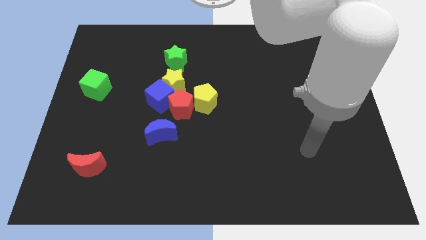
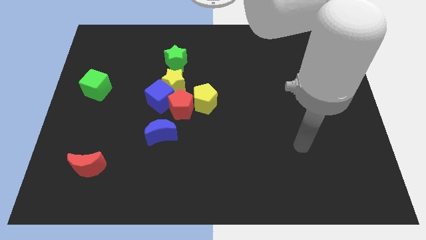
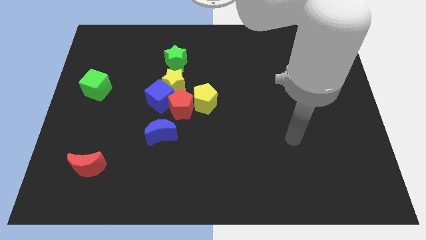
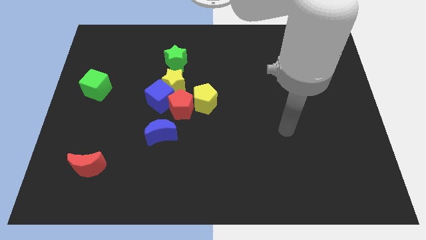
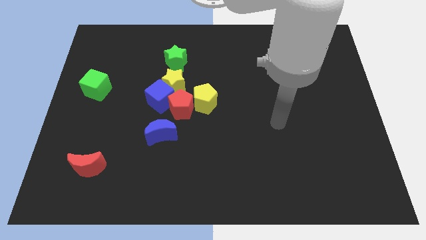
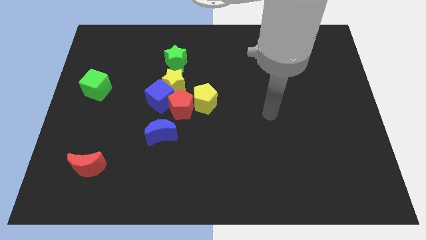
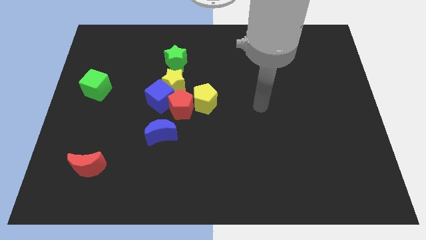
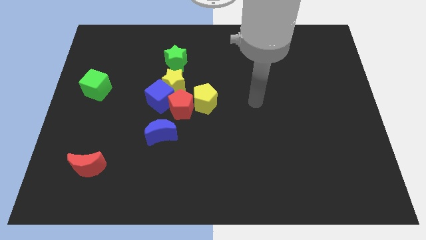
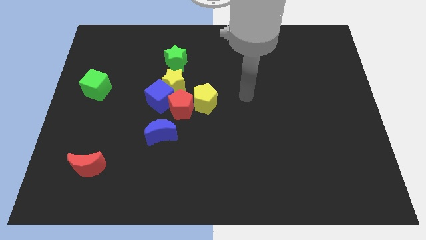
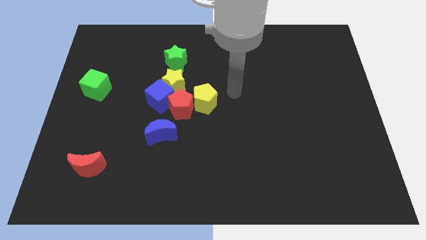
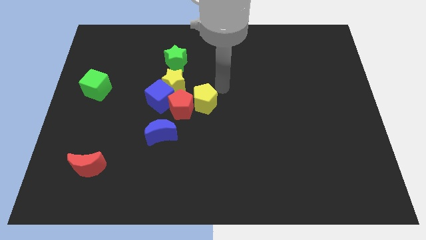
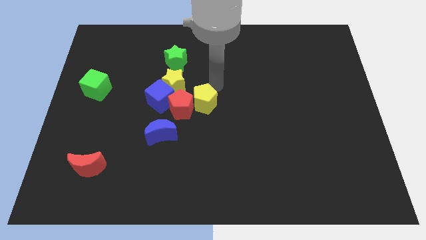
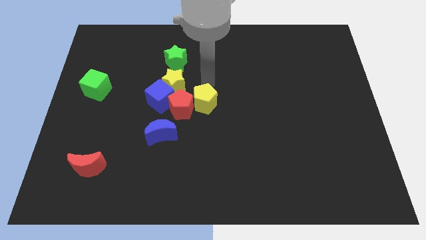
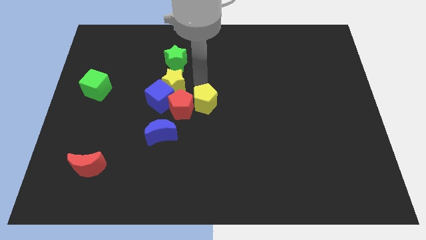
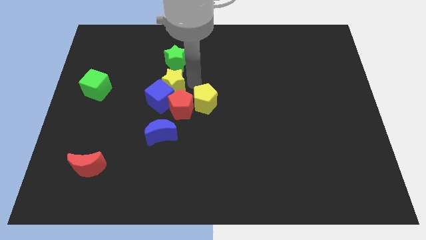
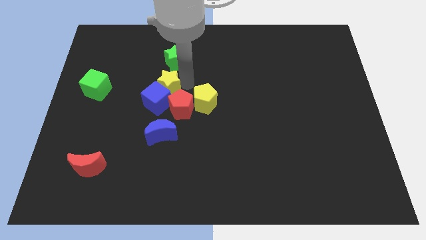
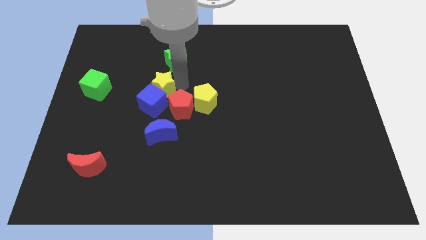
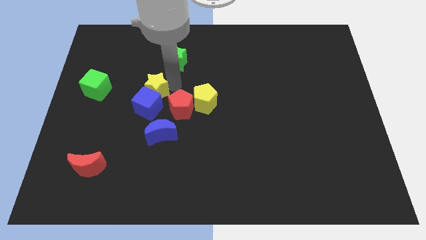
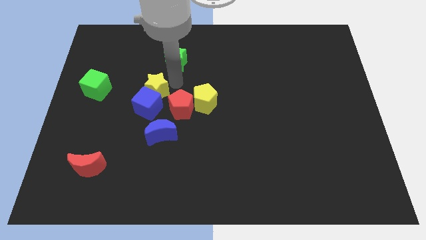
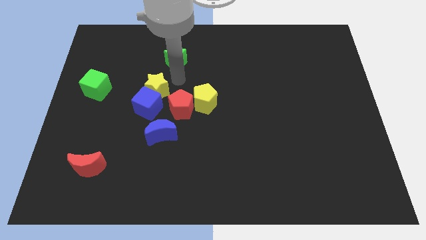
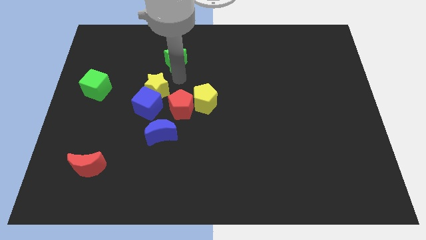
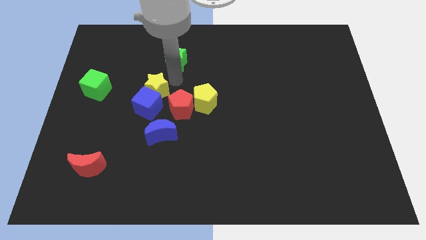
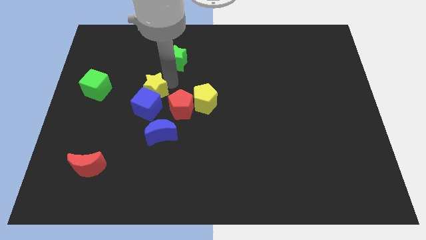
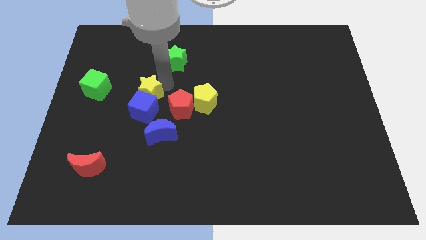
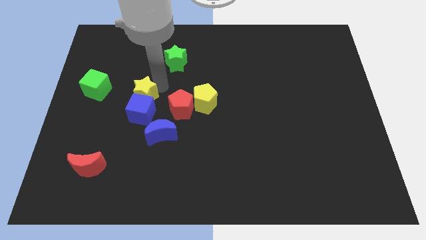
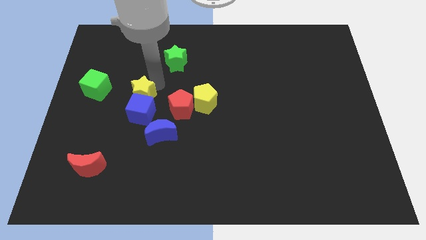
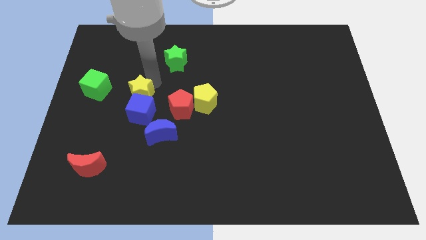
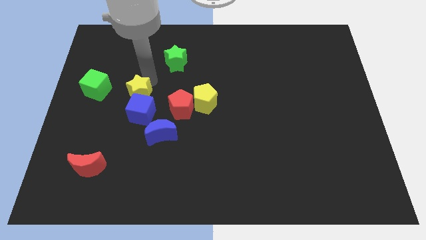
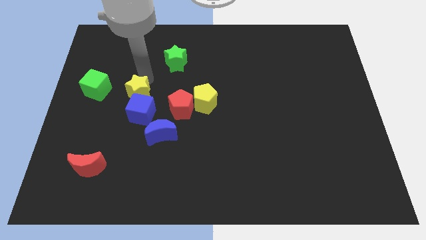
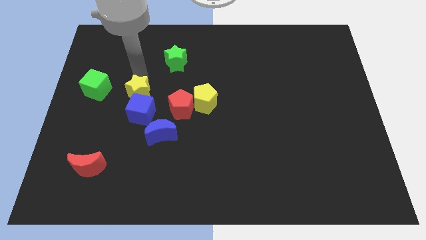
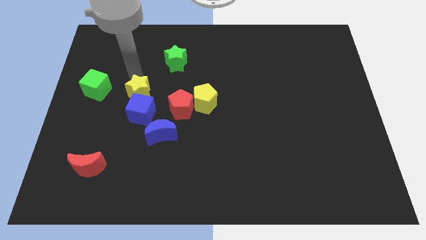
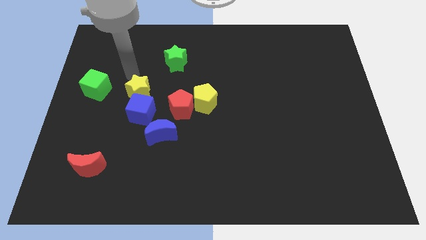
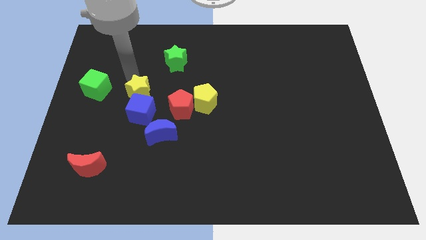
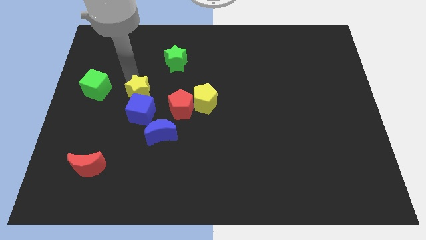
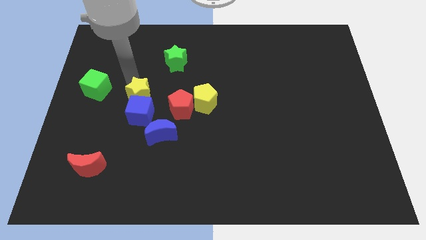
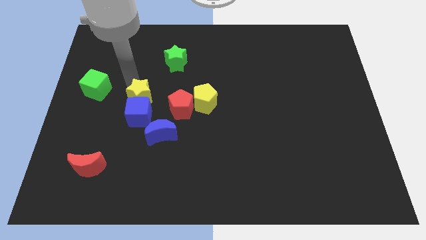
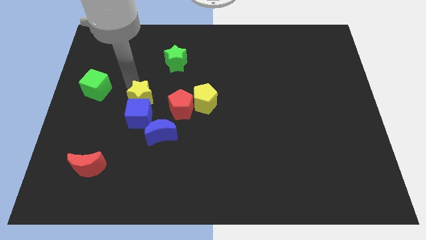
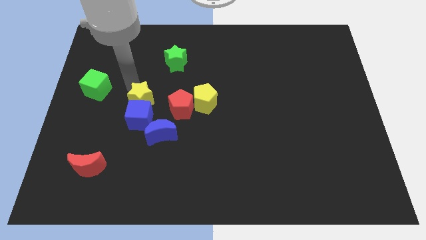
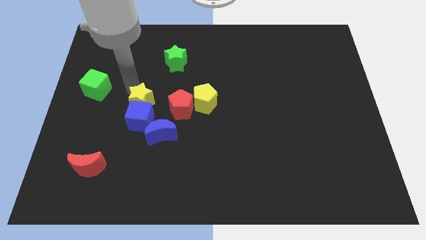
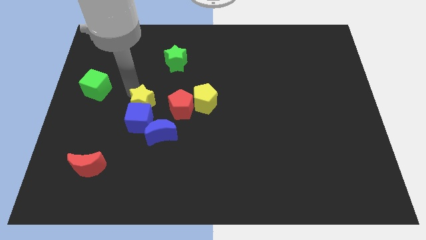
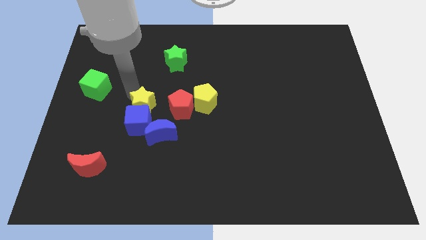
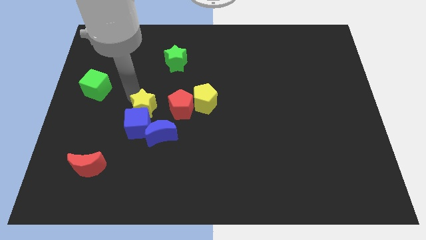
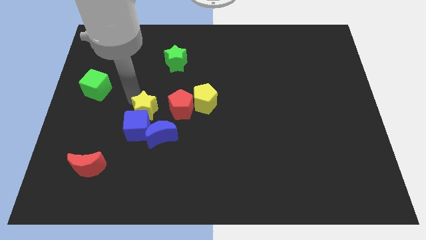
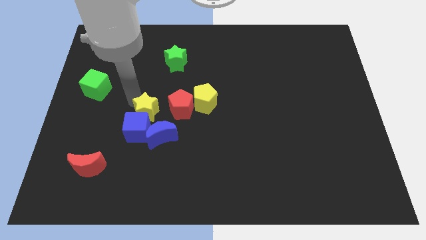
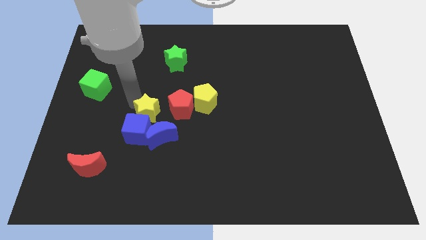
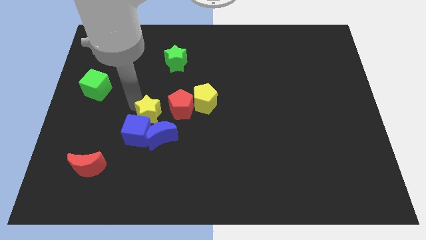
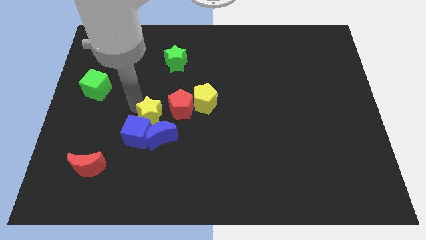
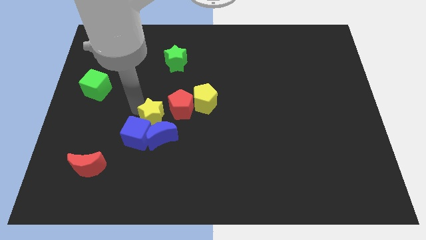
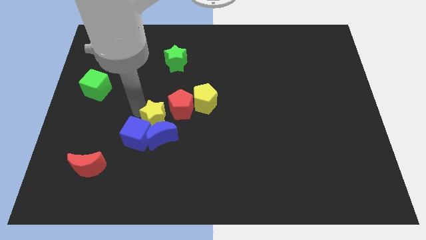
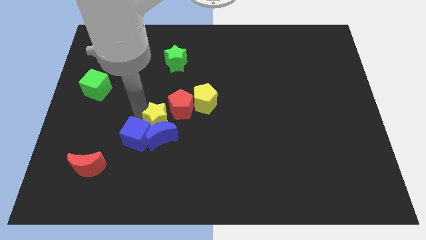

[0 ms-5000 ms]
push the yellow star to the bottom left of the yellow pentagon

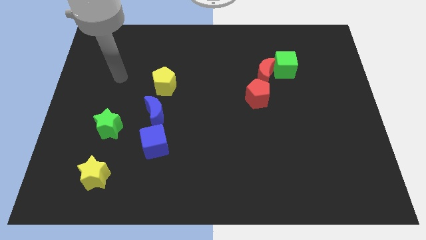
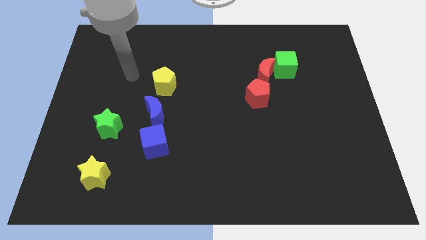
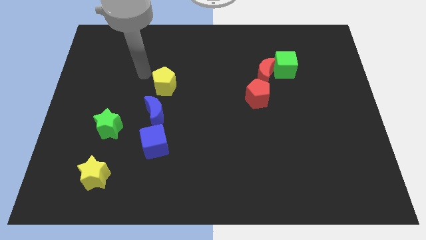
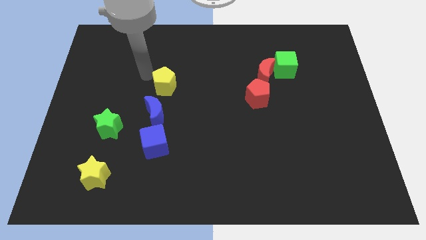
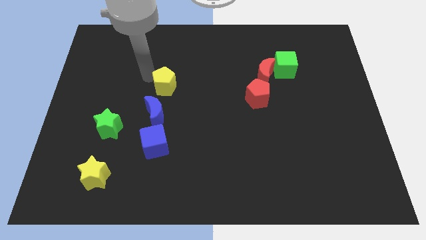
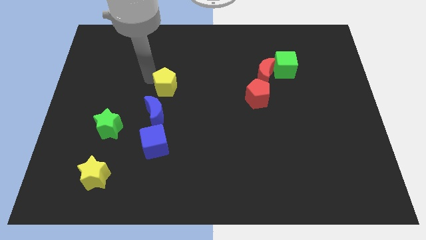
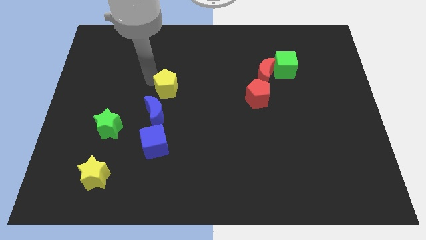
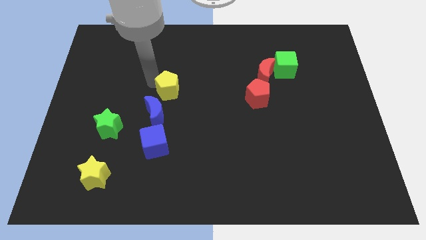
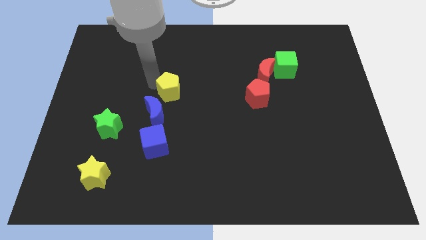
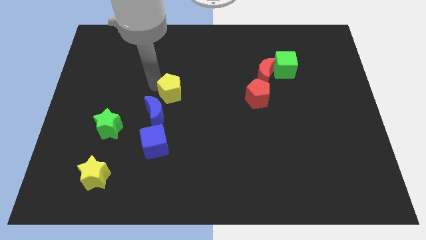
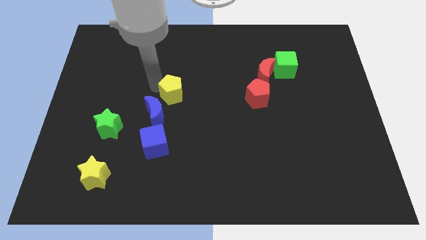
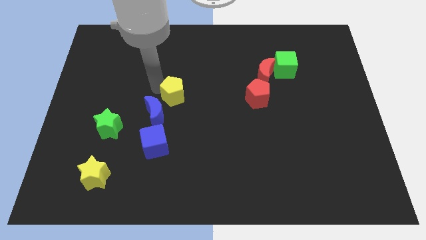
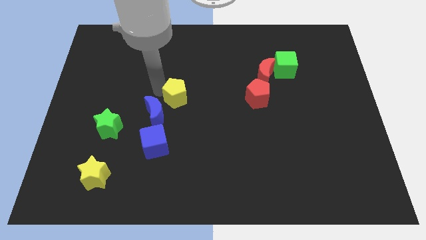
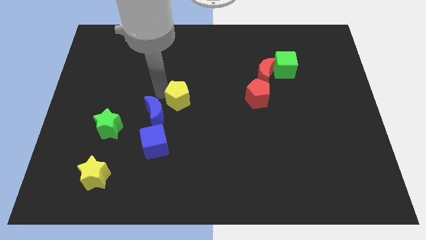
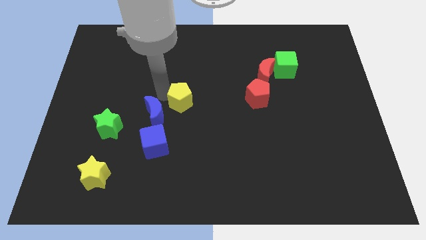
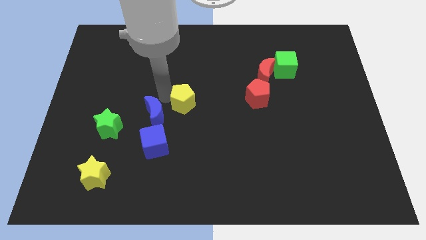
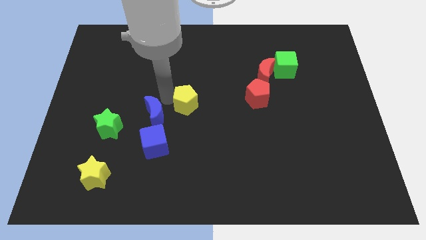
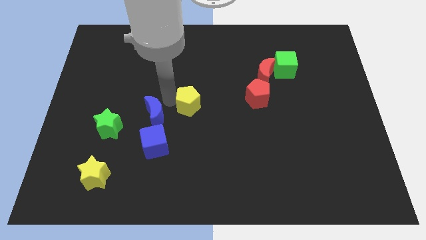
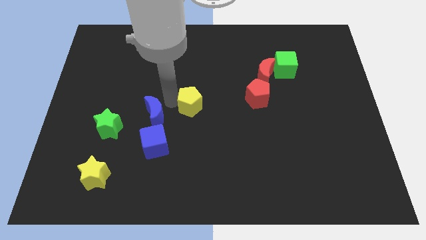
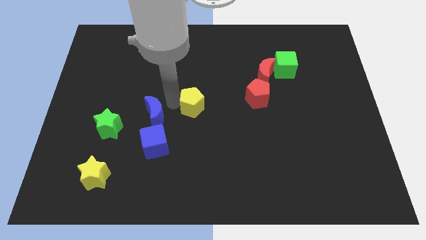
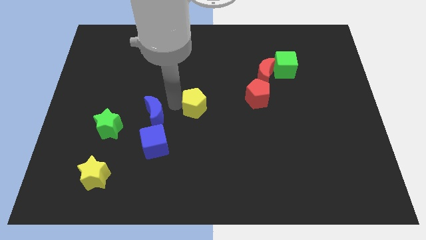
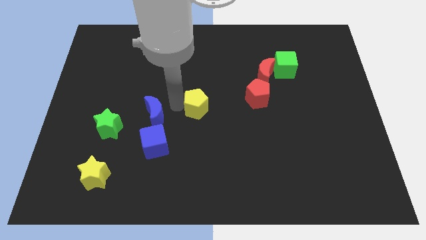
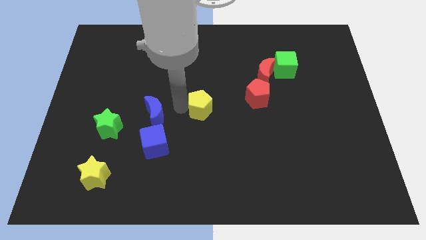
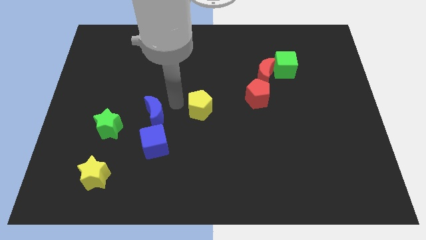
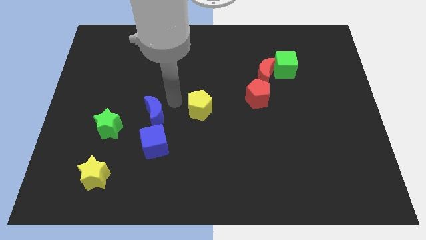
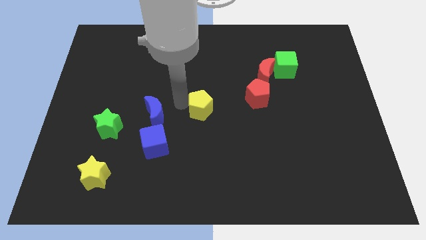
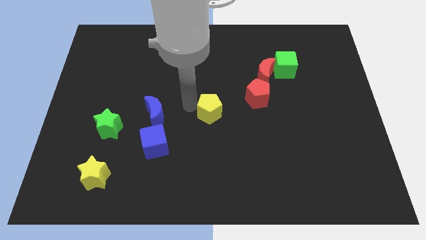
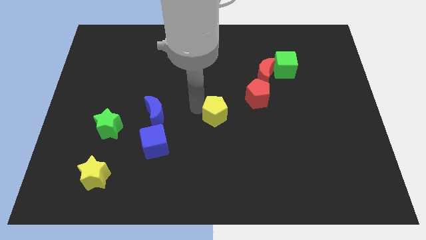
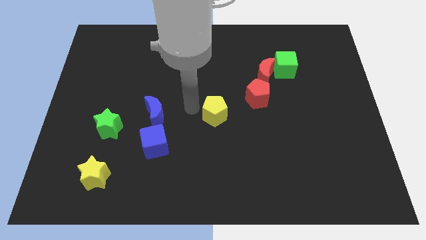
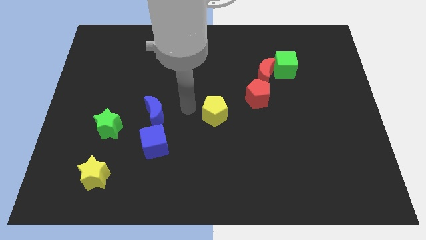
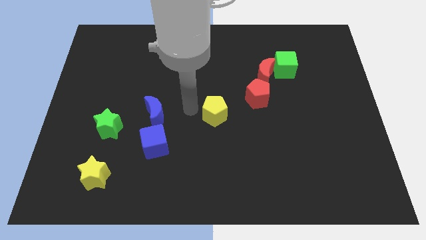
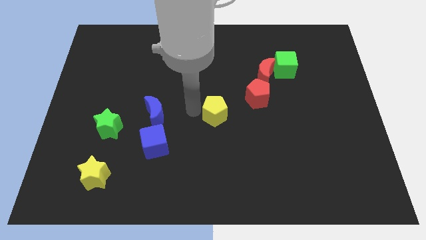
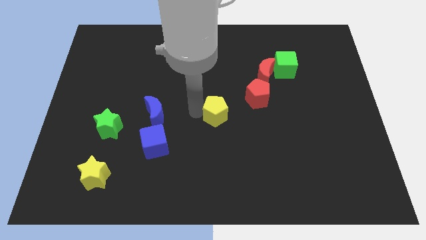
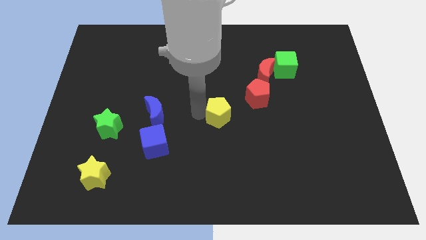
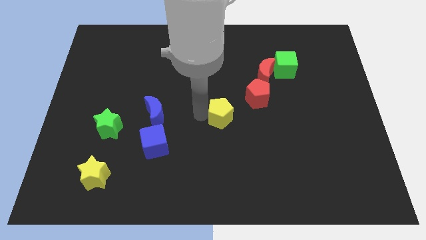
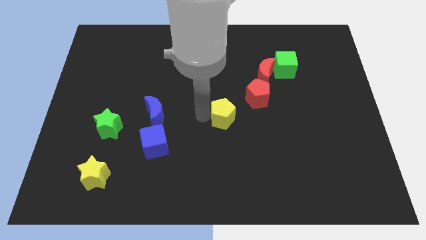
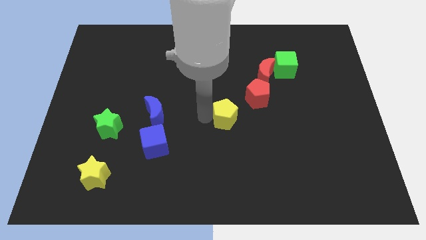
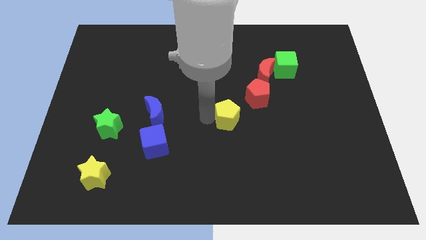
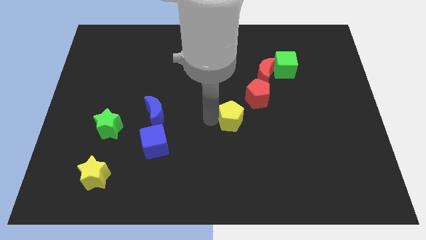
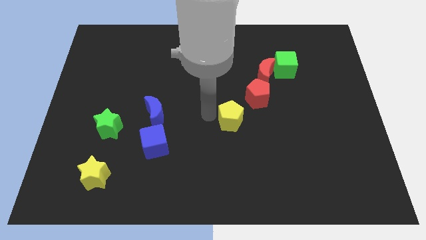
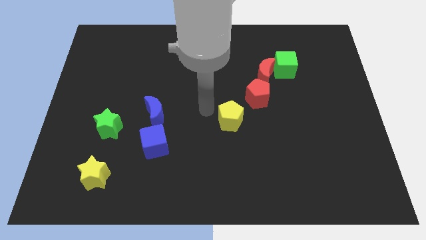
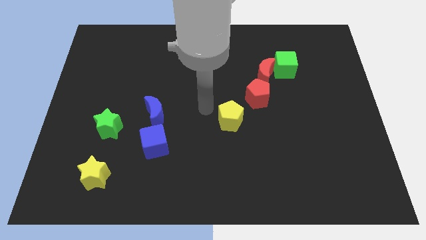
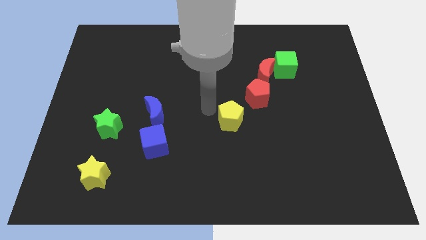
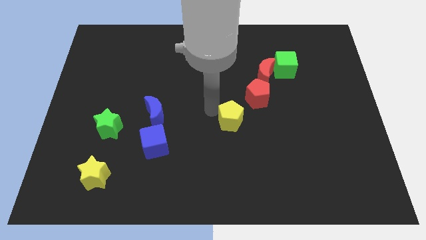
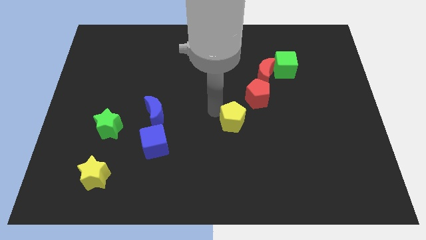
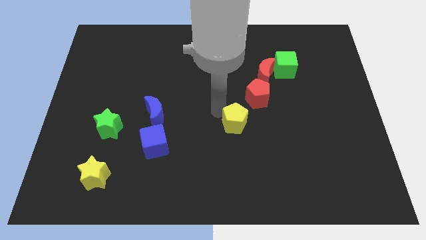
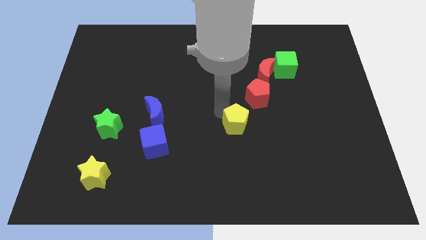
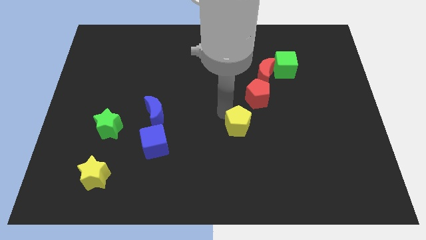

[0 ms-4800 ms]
put the yellow pentagon below the red pentagon
